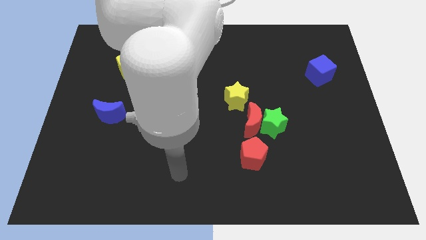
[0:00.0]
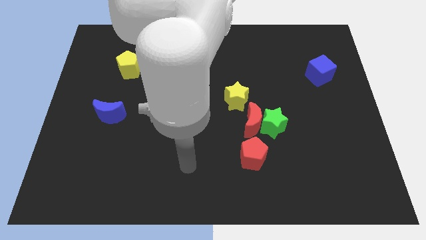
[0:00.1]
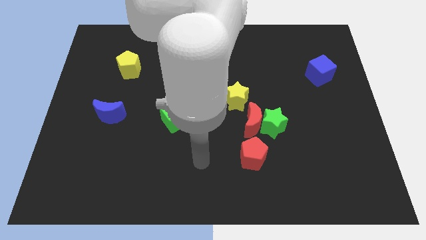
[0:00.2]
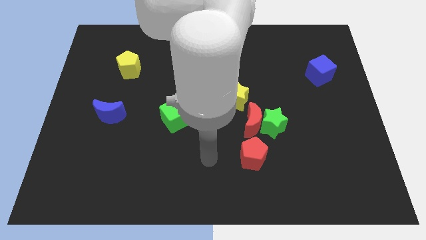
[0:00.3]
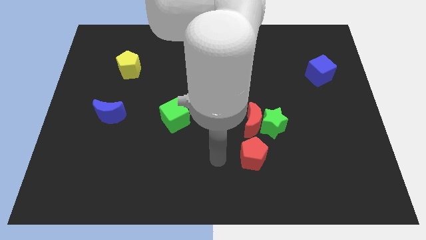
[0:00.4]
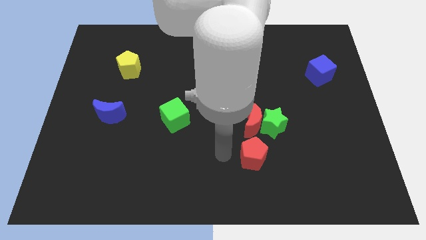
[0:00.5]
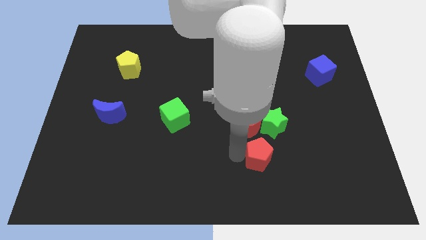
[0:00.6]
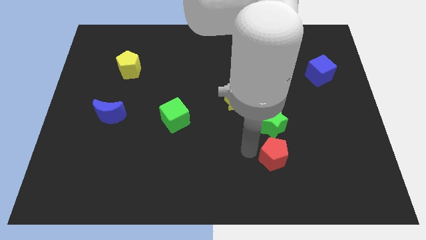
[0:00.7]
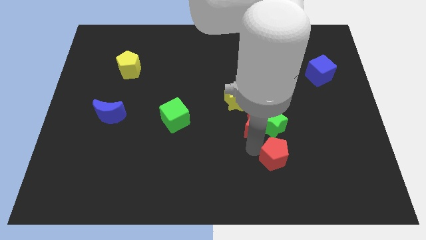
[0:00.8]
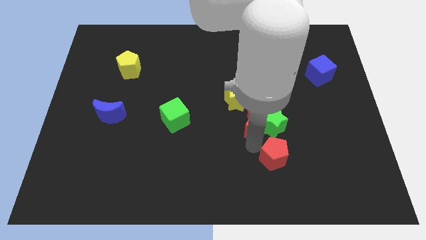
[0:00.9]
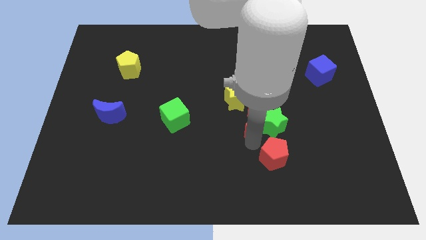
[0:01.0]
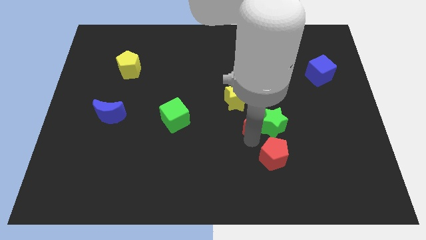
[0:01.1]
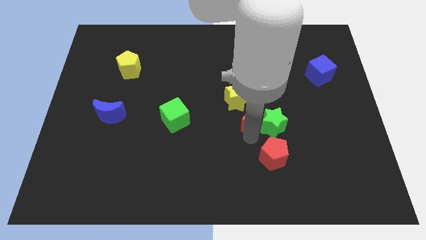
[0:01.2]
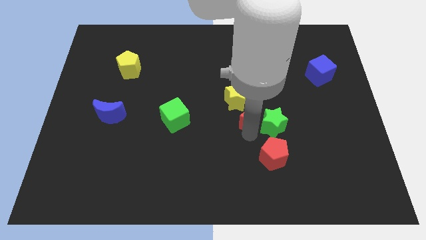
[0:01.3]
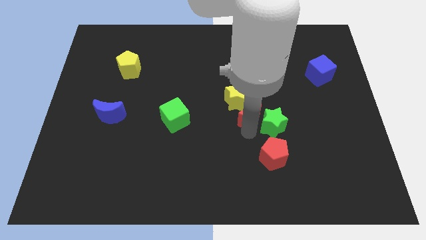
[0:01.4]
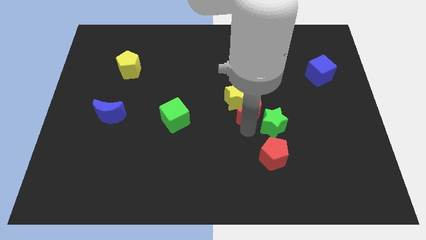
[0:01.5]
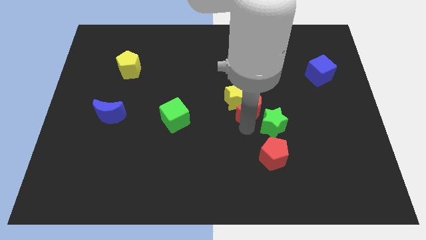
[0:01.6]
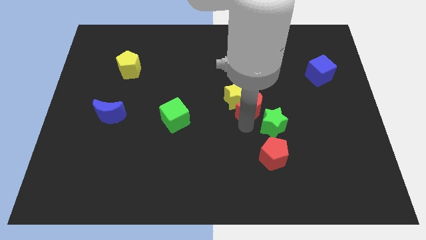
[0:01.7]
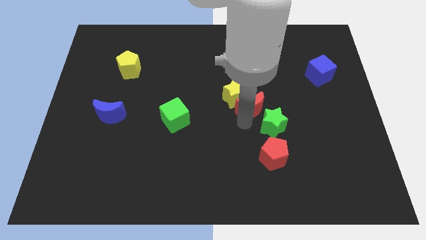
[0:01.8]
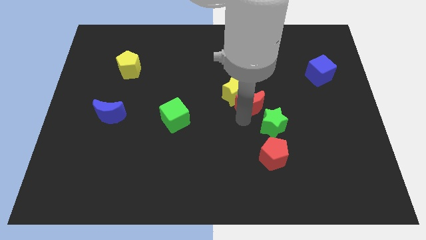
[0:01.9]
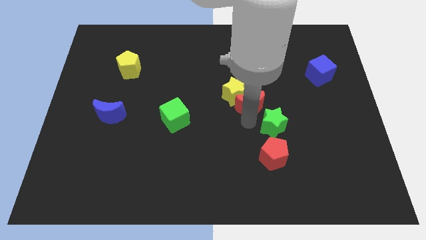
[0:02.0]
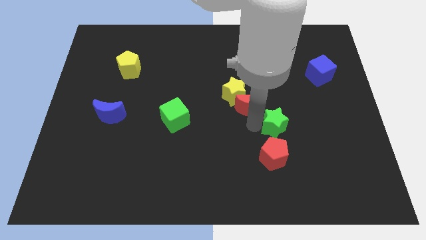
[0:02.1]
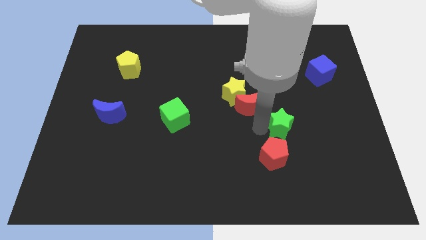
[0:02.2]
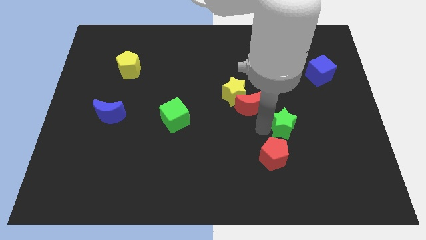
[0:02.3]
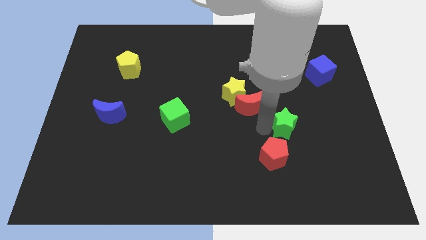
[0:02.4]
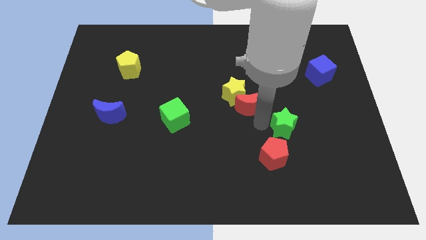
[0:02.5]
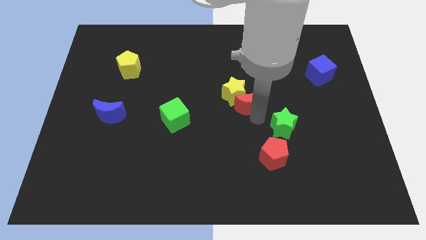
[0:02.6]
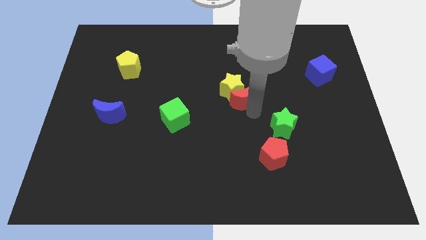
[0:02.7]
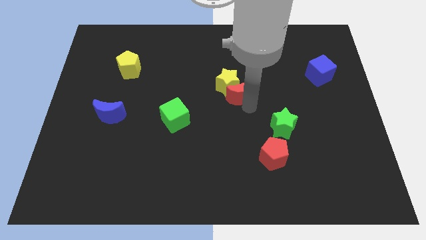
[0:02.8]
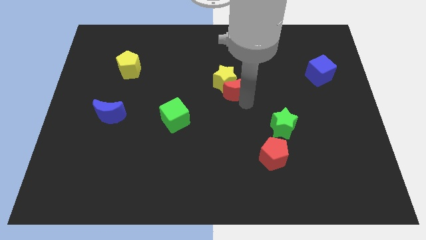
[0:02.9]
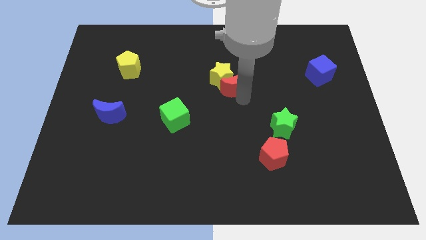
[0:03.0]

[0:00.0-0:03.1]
move the red moon away from the green star, yellow star, and red pentagon

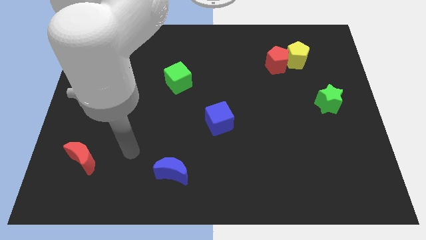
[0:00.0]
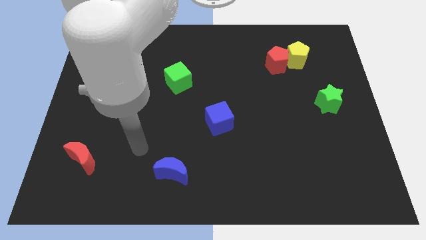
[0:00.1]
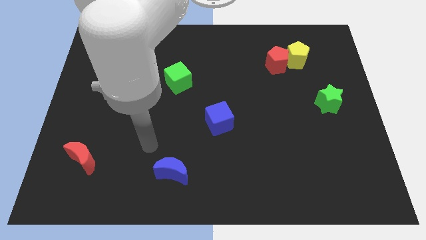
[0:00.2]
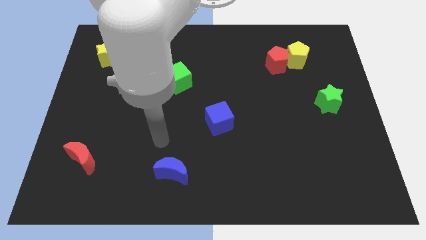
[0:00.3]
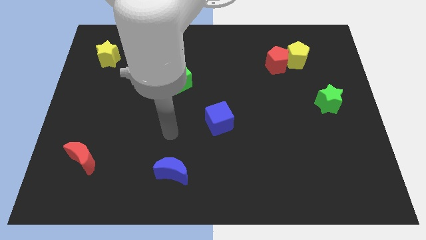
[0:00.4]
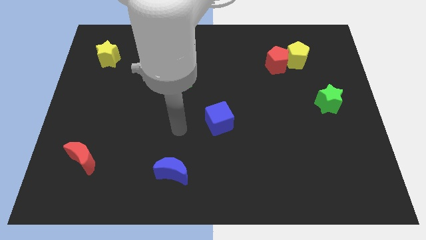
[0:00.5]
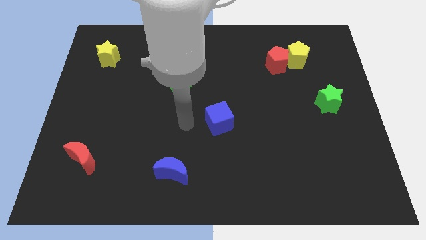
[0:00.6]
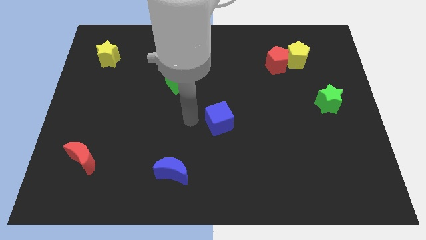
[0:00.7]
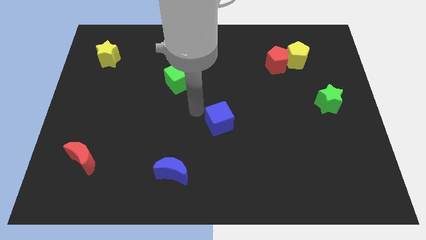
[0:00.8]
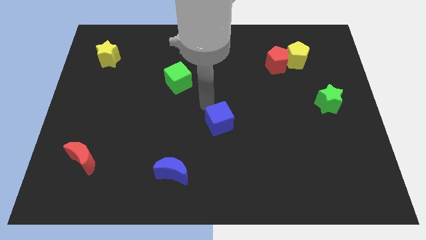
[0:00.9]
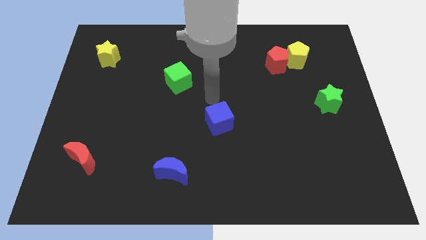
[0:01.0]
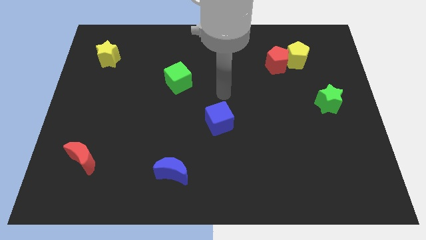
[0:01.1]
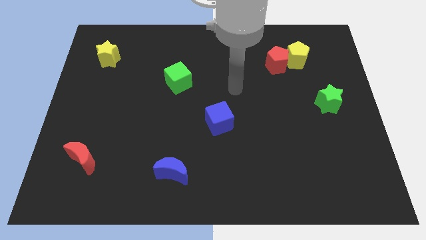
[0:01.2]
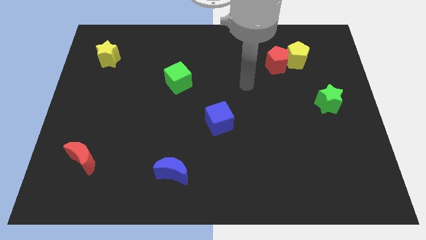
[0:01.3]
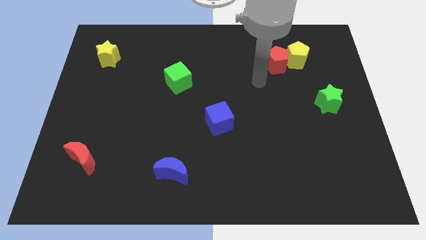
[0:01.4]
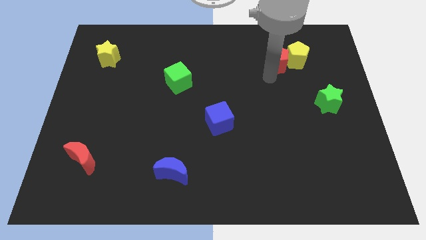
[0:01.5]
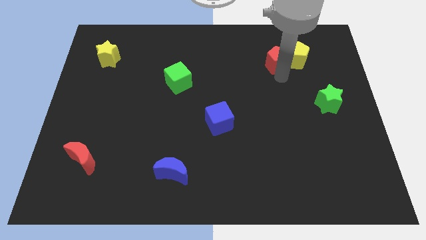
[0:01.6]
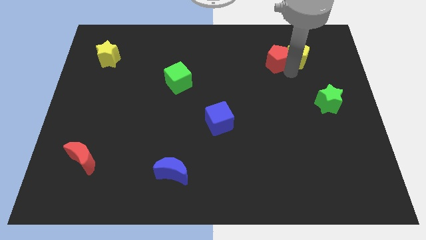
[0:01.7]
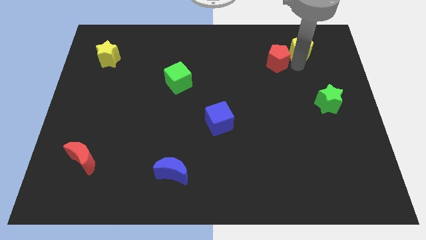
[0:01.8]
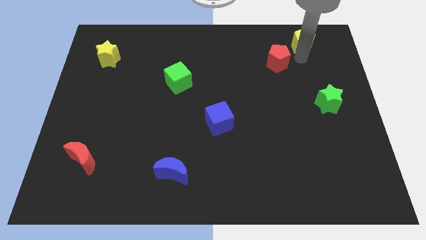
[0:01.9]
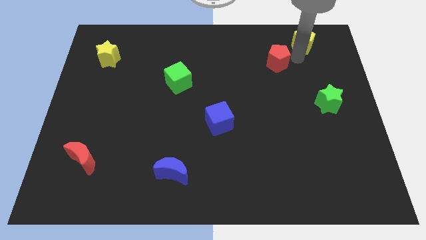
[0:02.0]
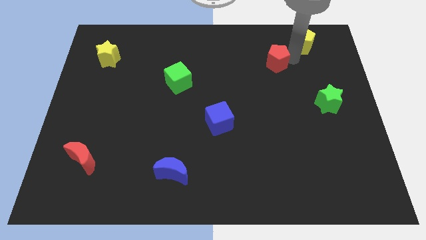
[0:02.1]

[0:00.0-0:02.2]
pull the red pentagon apart from the yellow pentagon

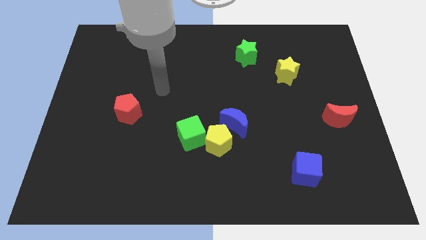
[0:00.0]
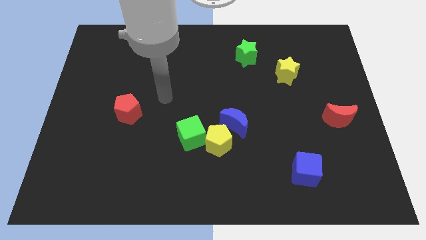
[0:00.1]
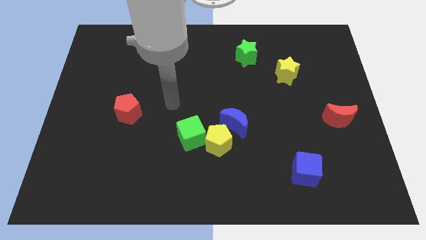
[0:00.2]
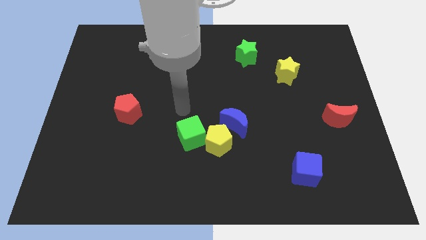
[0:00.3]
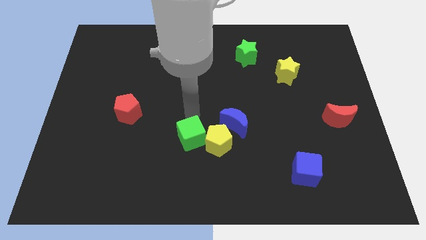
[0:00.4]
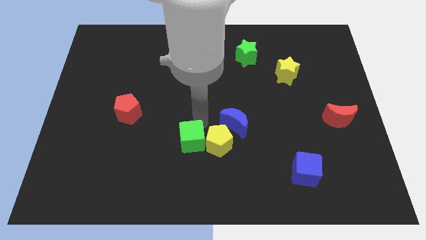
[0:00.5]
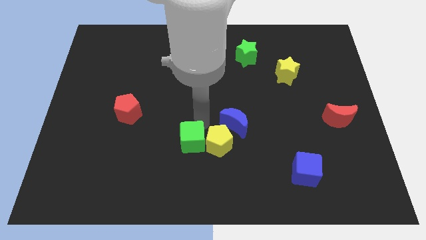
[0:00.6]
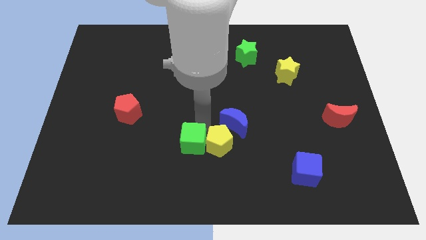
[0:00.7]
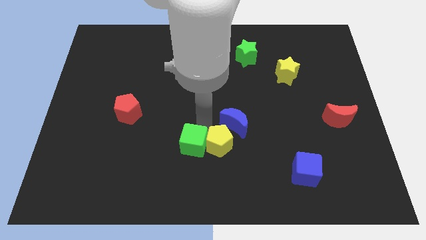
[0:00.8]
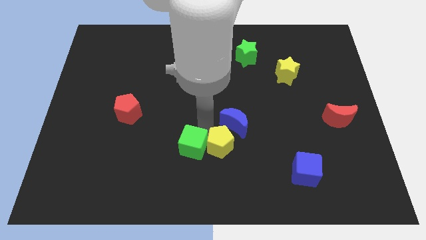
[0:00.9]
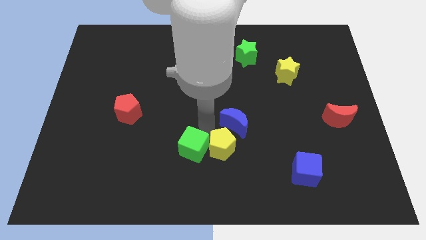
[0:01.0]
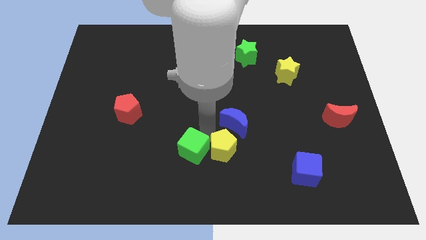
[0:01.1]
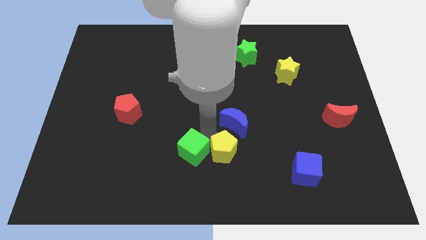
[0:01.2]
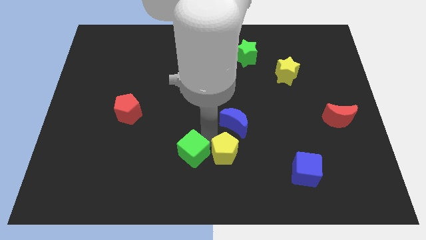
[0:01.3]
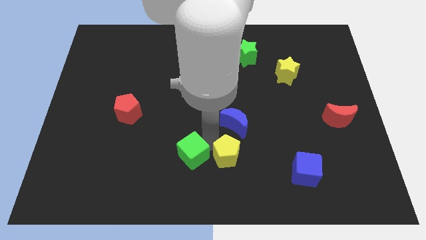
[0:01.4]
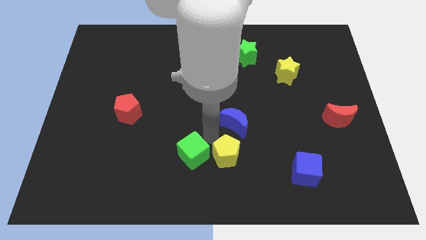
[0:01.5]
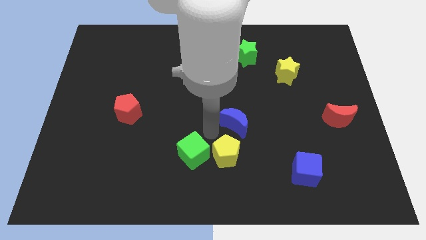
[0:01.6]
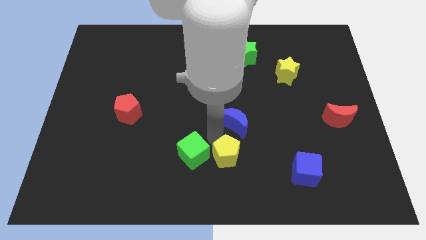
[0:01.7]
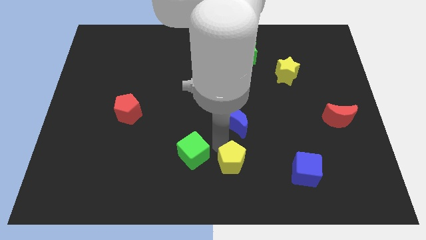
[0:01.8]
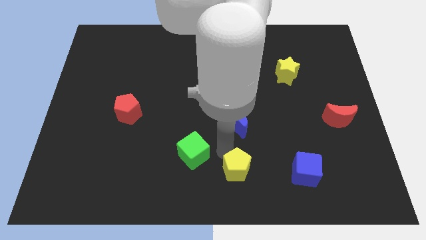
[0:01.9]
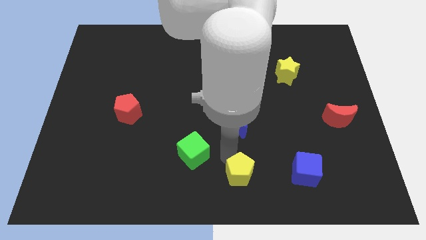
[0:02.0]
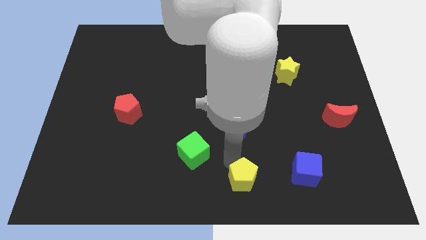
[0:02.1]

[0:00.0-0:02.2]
pull the yellow pentagon apart from the green cube and blue moon

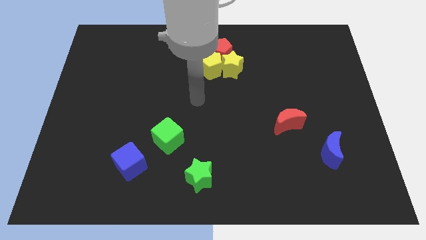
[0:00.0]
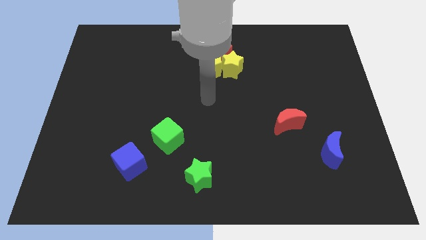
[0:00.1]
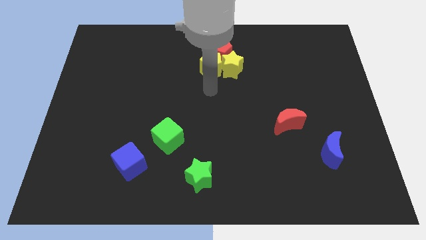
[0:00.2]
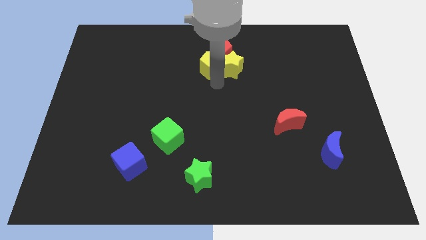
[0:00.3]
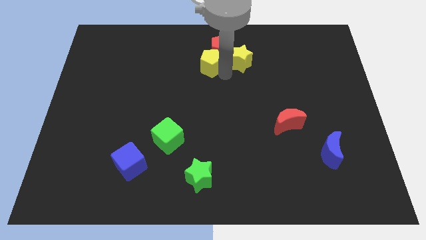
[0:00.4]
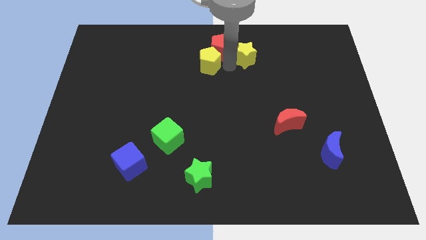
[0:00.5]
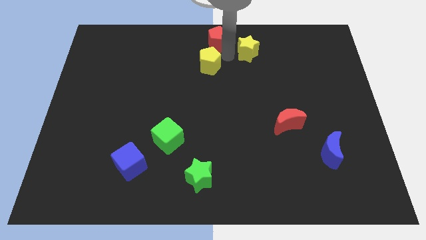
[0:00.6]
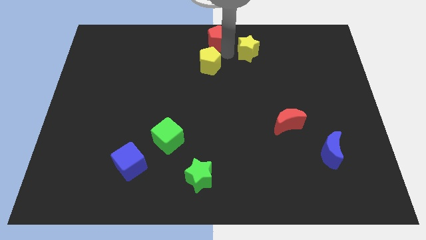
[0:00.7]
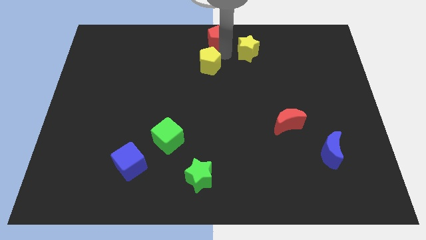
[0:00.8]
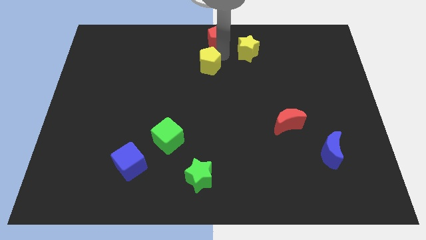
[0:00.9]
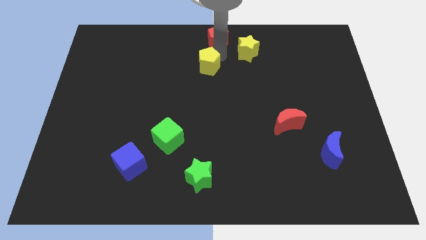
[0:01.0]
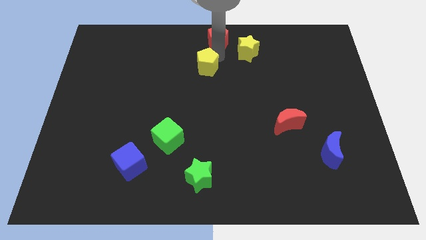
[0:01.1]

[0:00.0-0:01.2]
pull the yellow pentagon apart from the yellow star and red pentagon

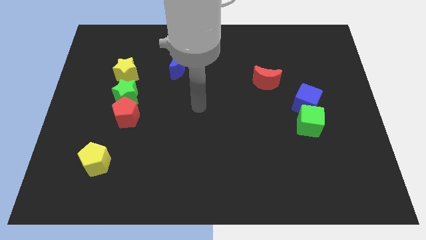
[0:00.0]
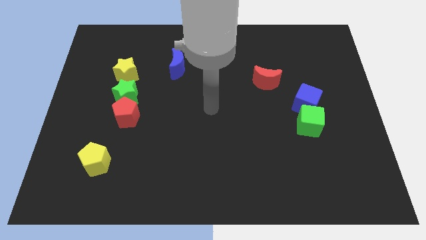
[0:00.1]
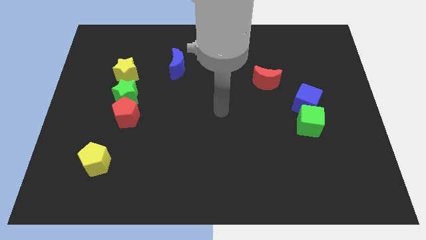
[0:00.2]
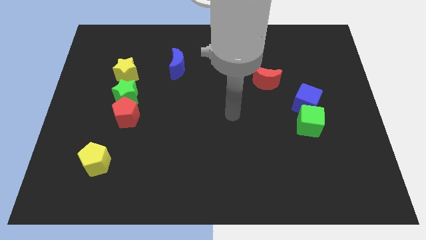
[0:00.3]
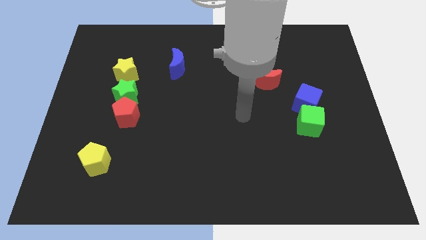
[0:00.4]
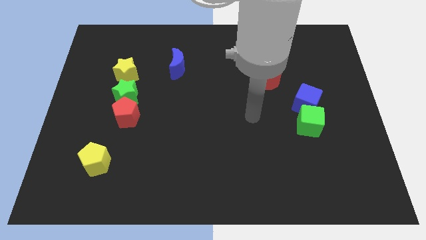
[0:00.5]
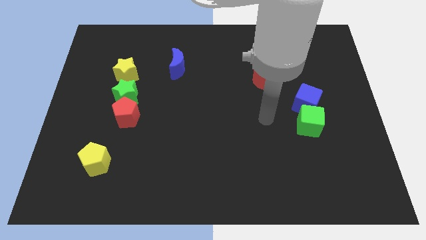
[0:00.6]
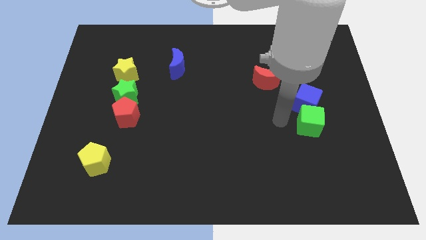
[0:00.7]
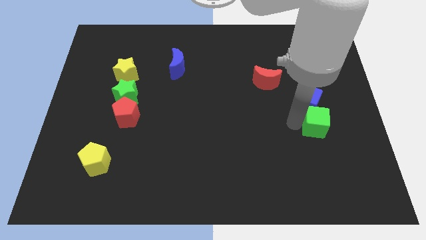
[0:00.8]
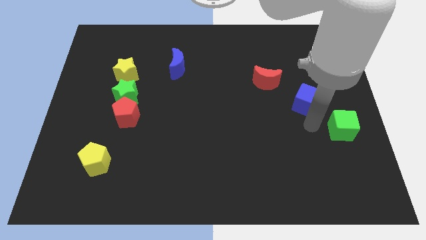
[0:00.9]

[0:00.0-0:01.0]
move the blue cube away from the green cube
